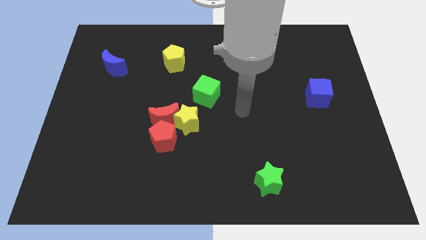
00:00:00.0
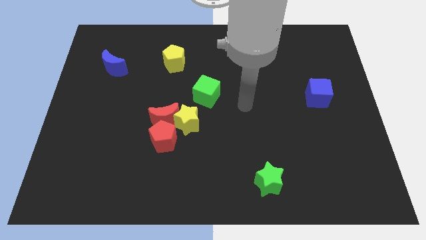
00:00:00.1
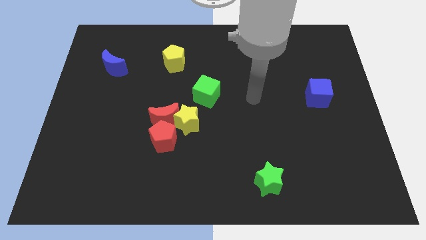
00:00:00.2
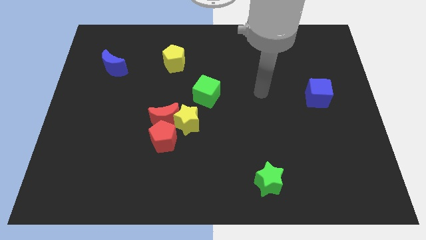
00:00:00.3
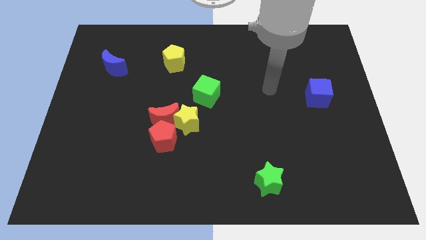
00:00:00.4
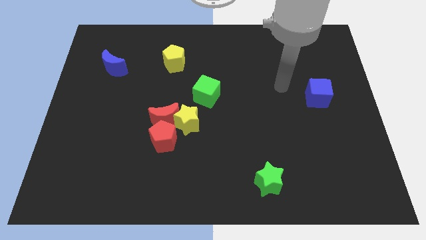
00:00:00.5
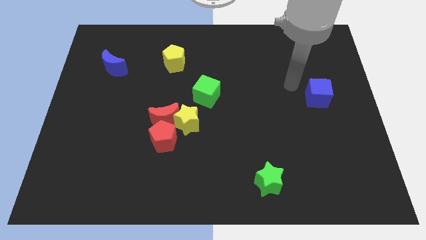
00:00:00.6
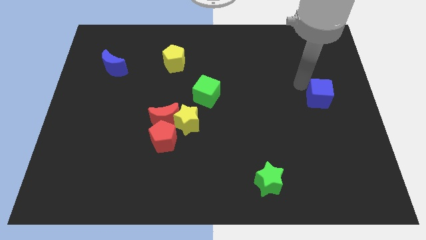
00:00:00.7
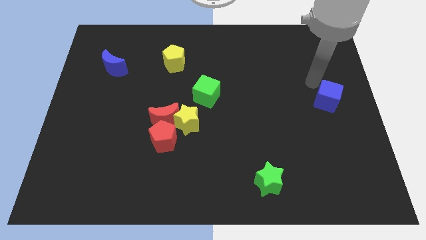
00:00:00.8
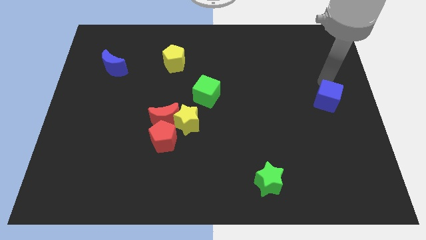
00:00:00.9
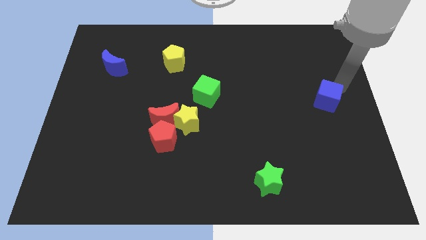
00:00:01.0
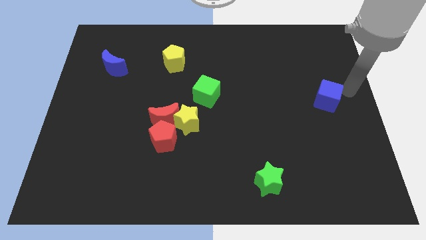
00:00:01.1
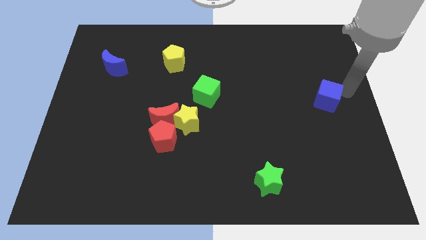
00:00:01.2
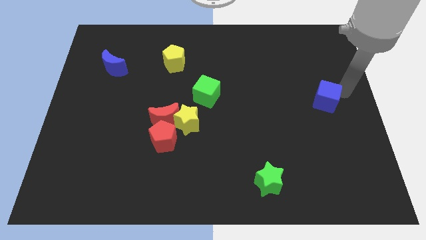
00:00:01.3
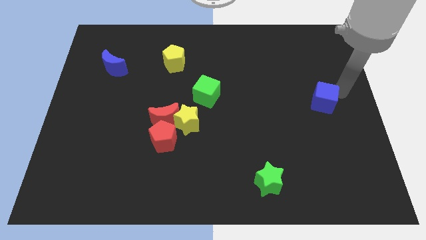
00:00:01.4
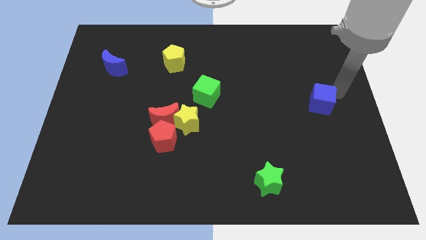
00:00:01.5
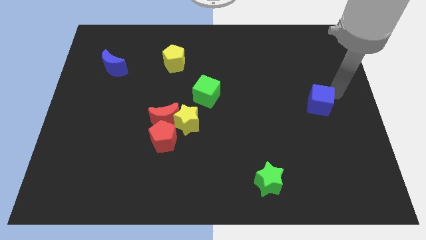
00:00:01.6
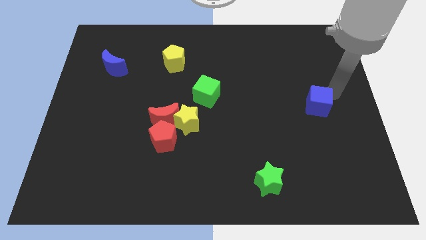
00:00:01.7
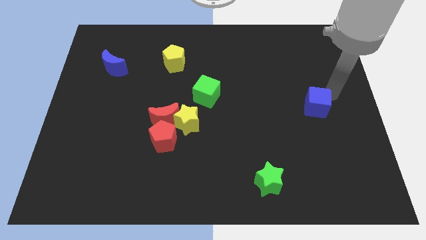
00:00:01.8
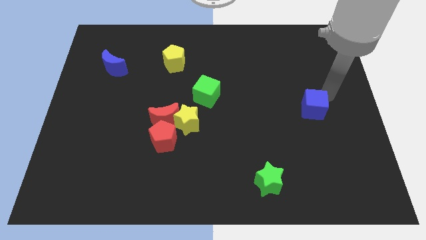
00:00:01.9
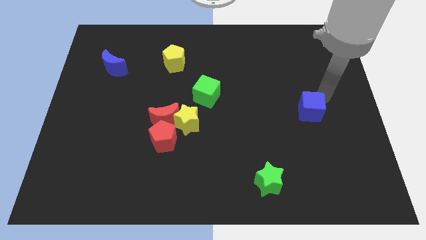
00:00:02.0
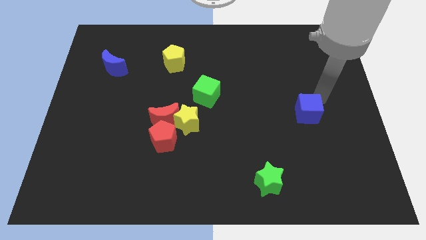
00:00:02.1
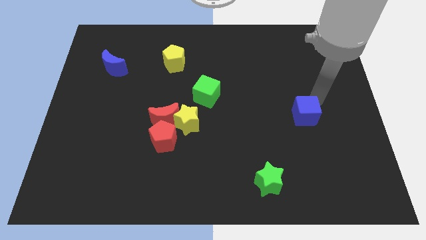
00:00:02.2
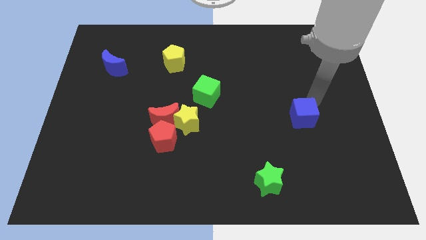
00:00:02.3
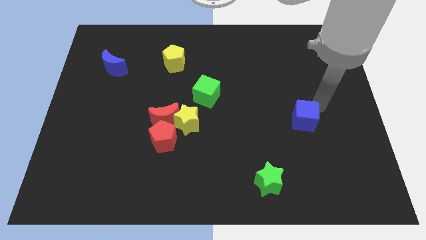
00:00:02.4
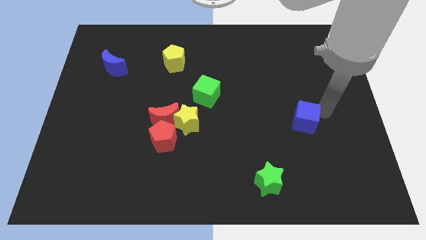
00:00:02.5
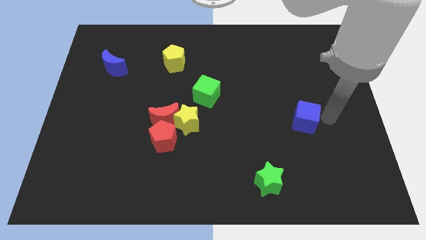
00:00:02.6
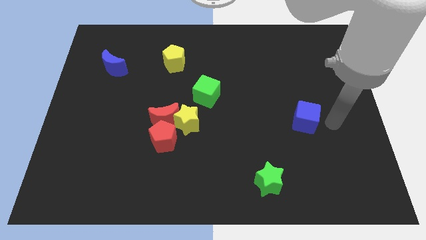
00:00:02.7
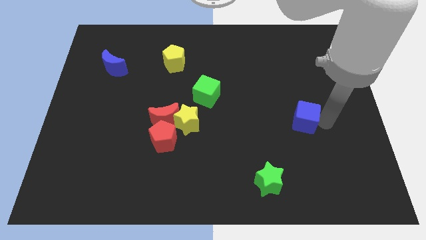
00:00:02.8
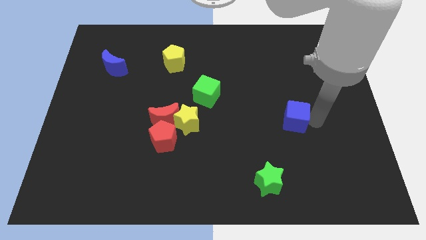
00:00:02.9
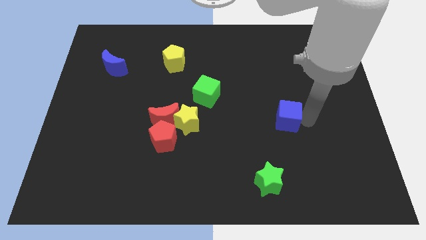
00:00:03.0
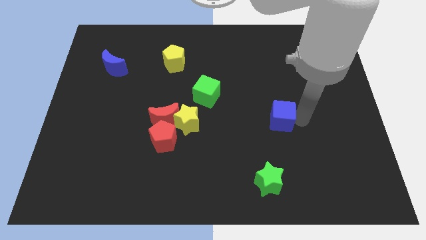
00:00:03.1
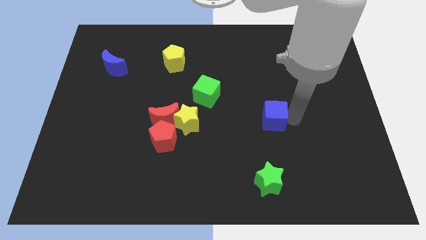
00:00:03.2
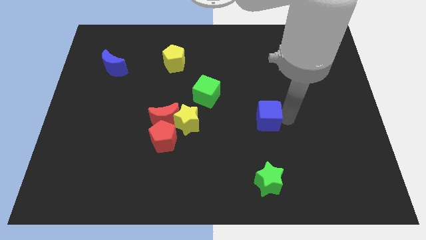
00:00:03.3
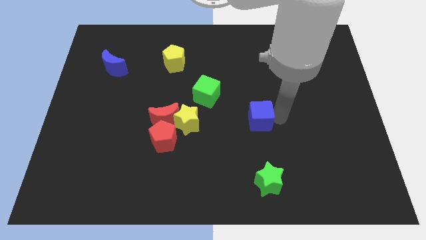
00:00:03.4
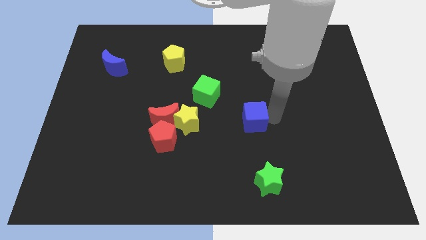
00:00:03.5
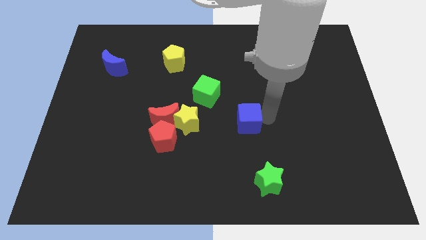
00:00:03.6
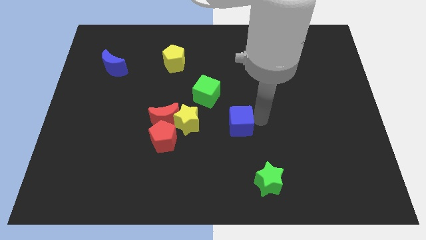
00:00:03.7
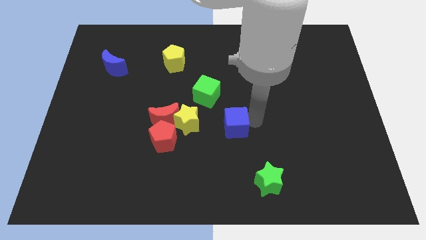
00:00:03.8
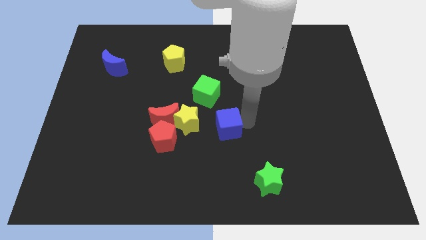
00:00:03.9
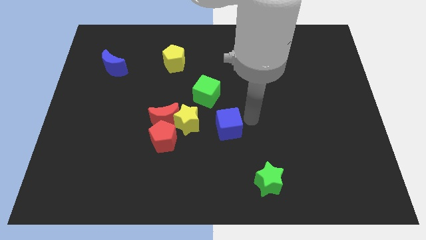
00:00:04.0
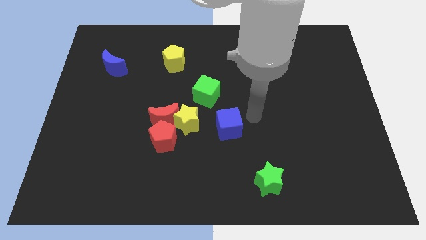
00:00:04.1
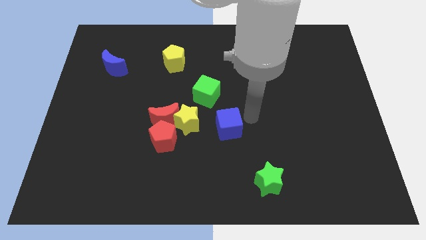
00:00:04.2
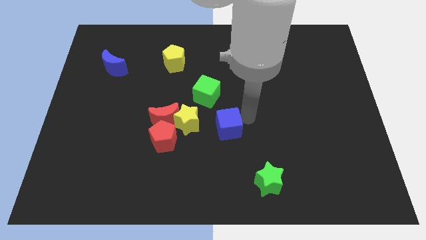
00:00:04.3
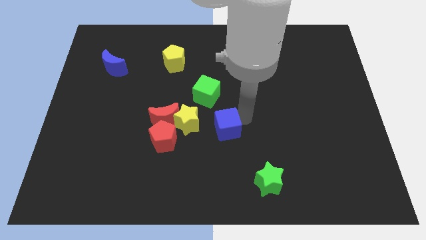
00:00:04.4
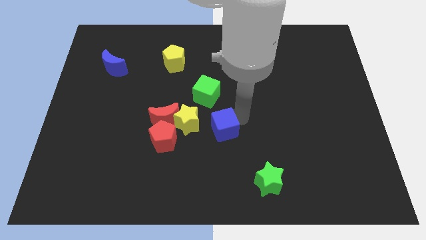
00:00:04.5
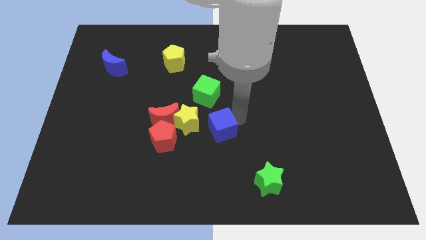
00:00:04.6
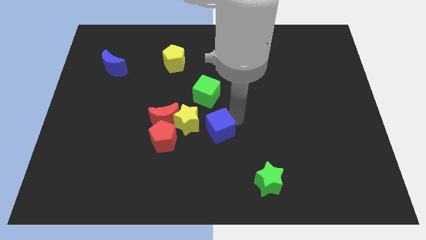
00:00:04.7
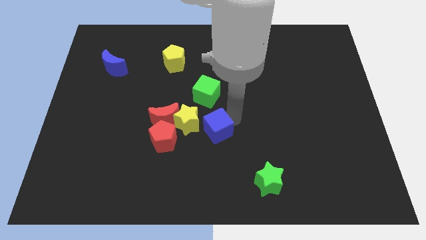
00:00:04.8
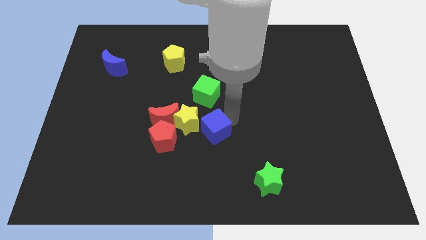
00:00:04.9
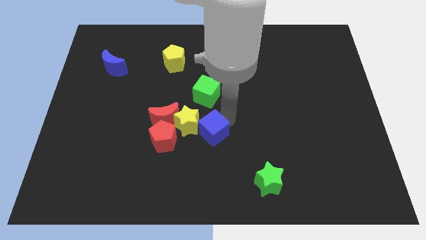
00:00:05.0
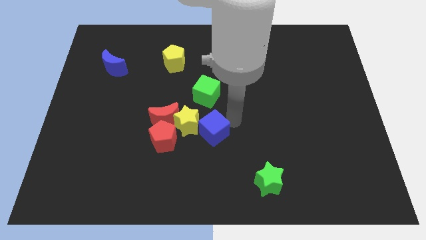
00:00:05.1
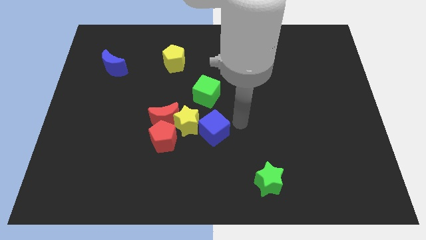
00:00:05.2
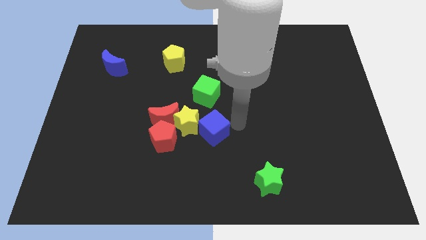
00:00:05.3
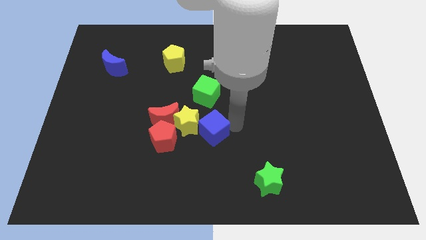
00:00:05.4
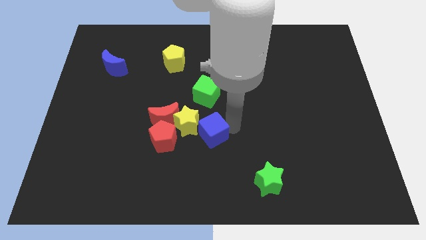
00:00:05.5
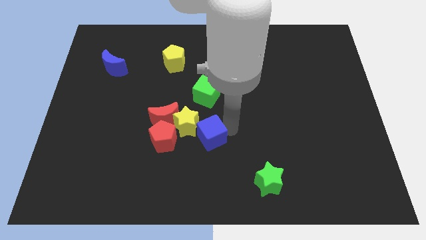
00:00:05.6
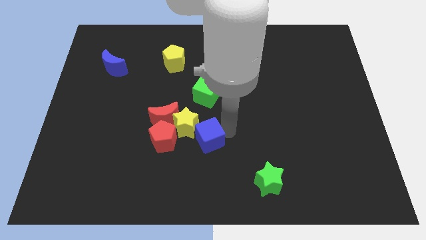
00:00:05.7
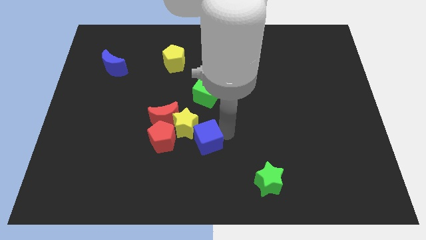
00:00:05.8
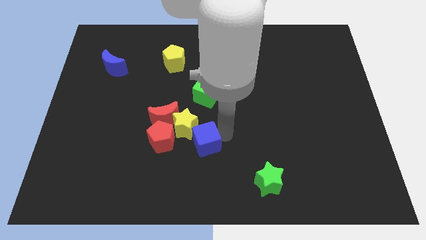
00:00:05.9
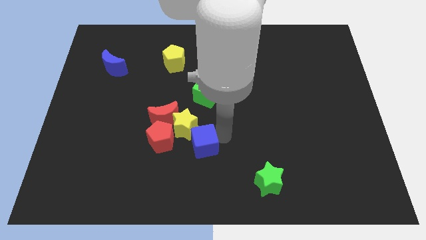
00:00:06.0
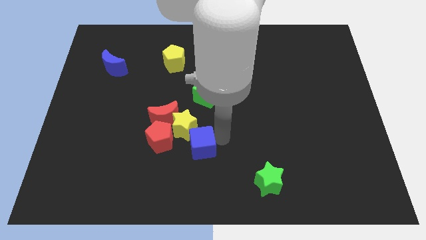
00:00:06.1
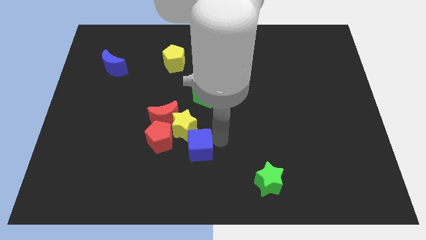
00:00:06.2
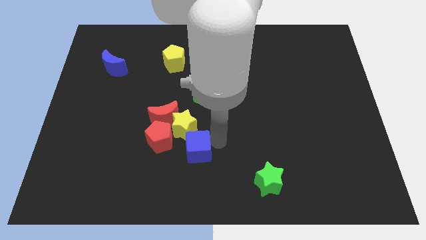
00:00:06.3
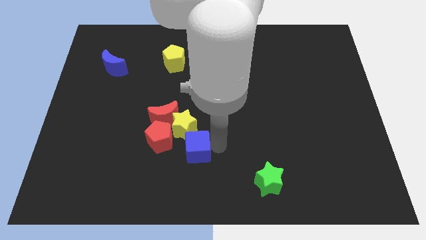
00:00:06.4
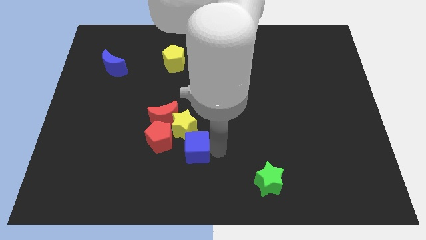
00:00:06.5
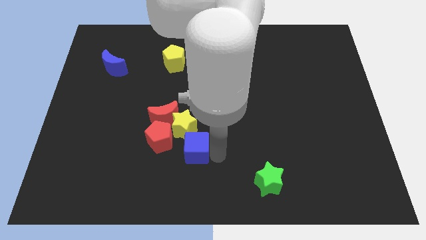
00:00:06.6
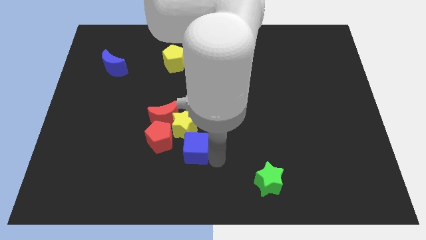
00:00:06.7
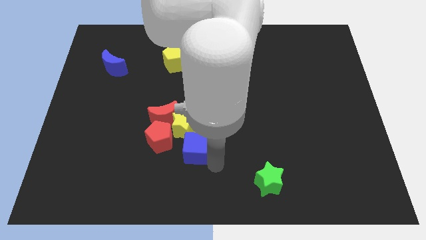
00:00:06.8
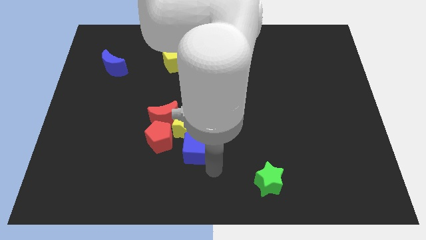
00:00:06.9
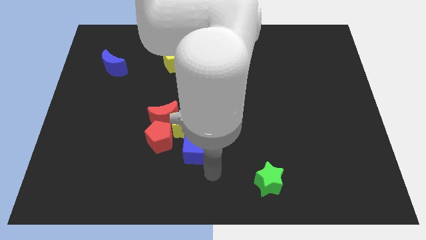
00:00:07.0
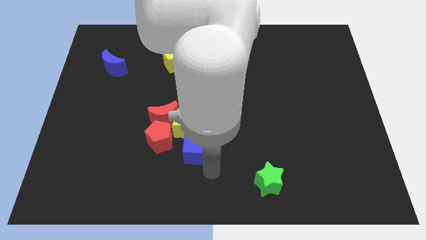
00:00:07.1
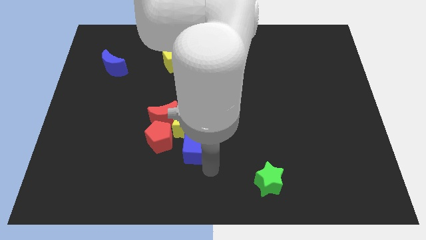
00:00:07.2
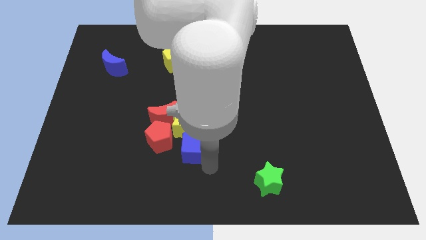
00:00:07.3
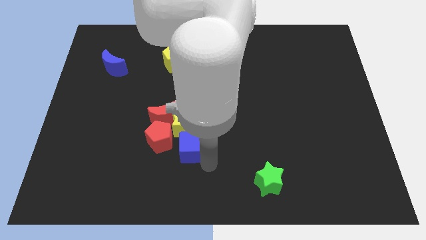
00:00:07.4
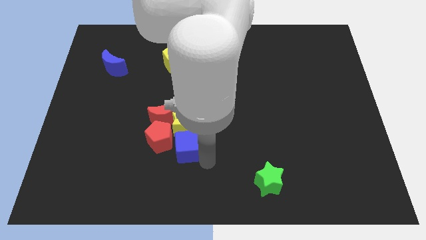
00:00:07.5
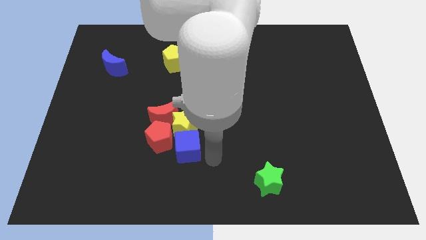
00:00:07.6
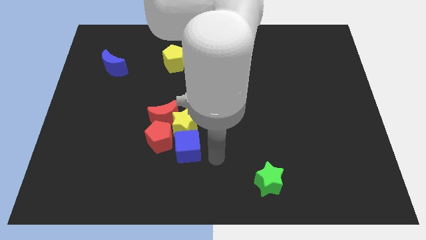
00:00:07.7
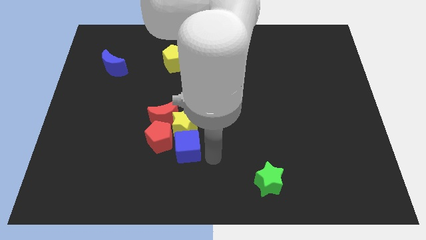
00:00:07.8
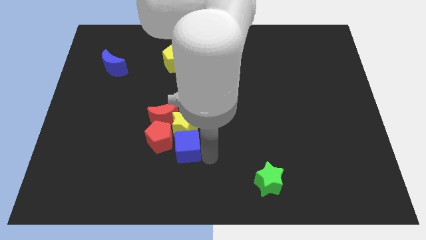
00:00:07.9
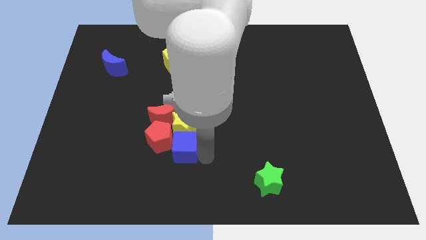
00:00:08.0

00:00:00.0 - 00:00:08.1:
move the blue cube next to the red pentagon
